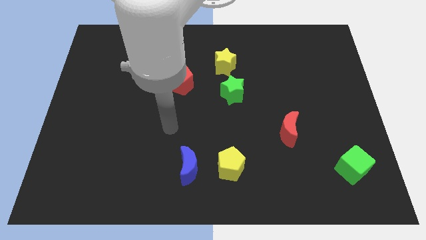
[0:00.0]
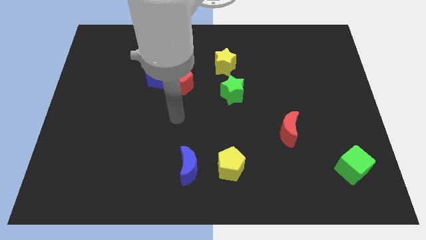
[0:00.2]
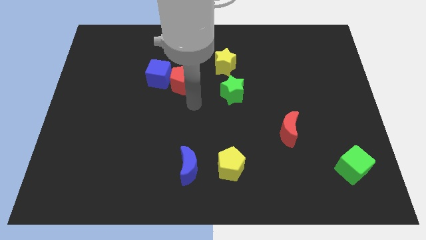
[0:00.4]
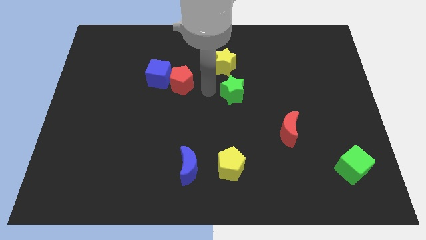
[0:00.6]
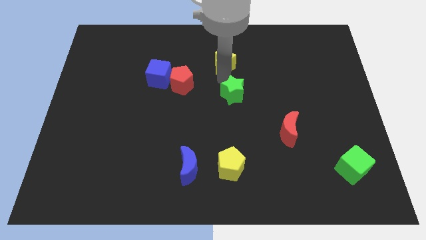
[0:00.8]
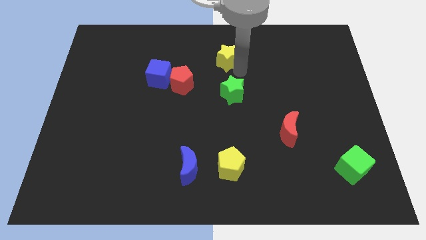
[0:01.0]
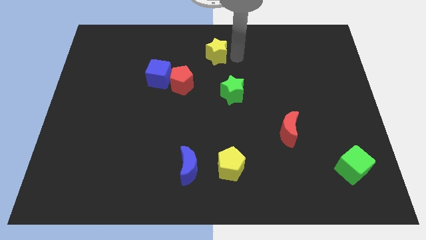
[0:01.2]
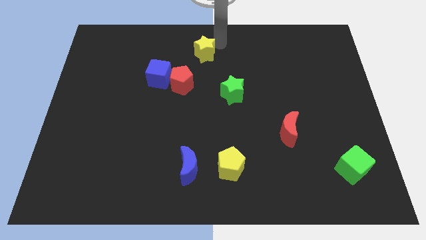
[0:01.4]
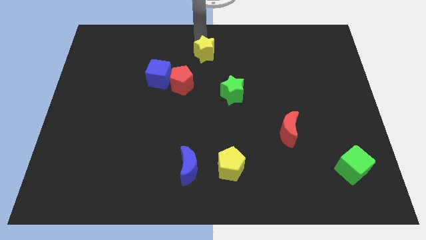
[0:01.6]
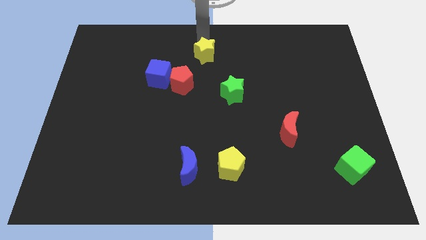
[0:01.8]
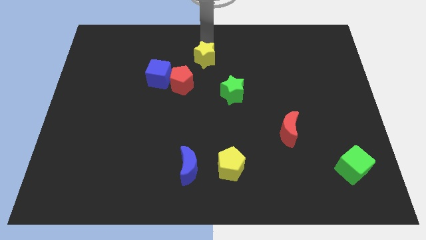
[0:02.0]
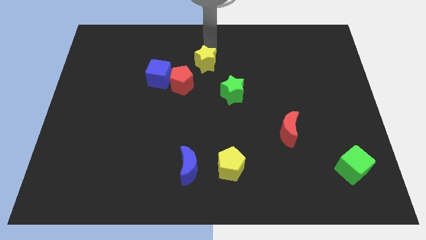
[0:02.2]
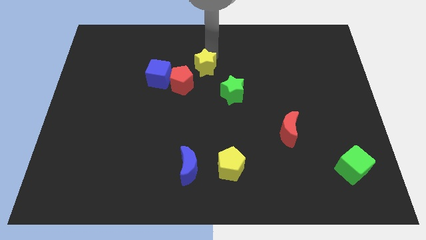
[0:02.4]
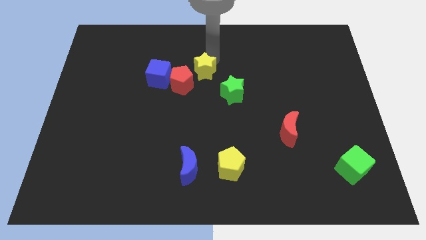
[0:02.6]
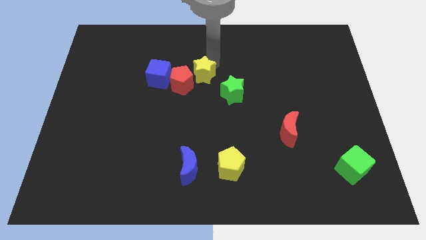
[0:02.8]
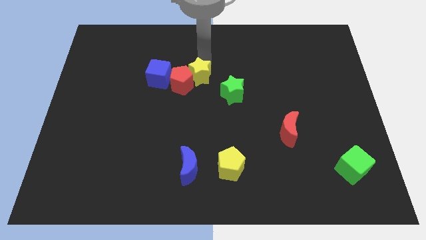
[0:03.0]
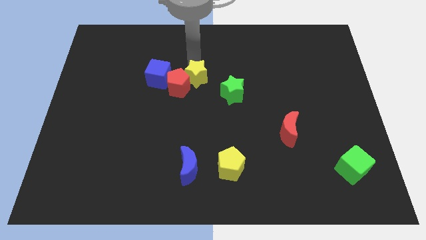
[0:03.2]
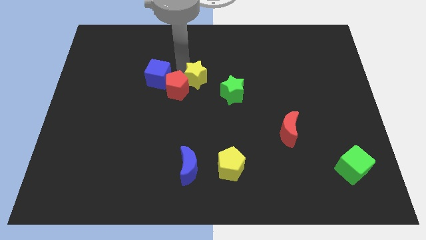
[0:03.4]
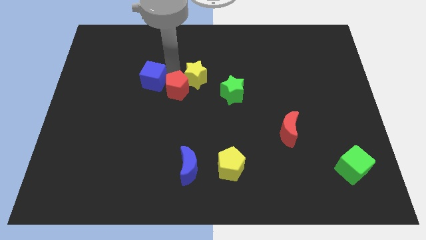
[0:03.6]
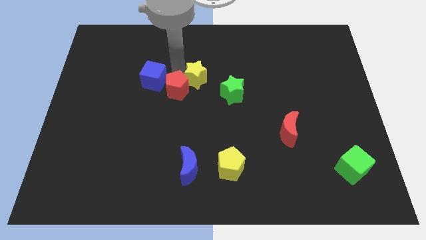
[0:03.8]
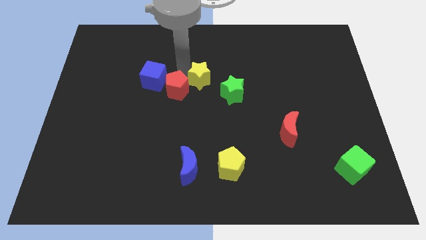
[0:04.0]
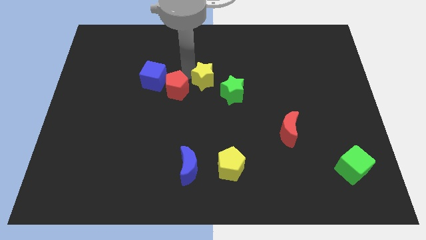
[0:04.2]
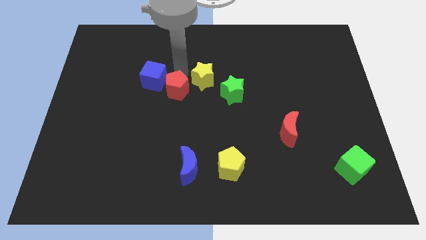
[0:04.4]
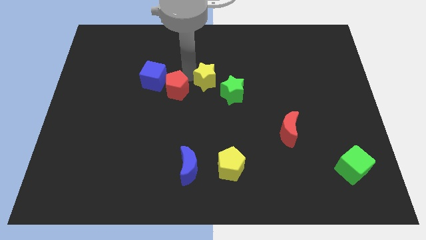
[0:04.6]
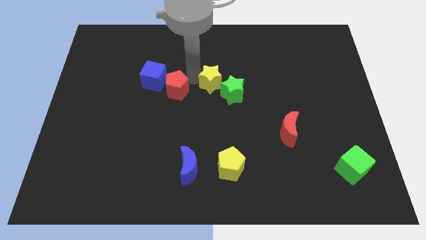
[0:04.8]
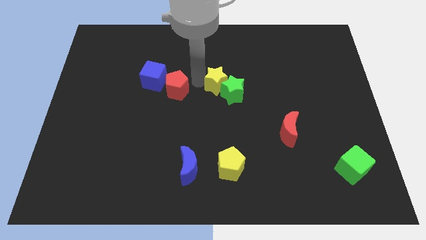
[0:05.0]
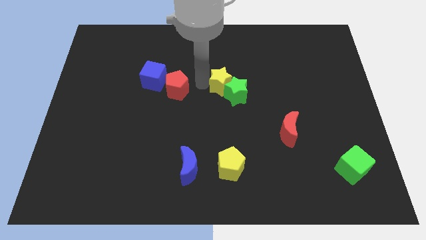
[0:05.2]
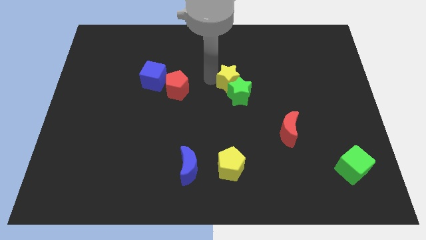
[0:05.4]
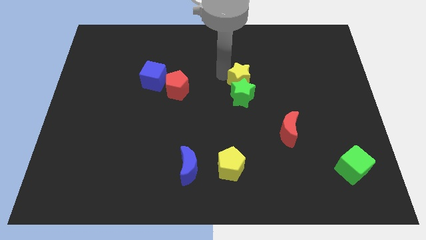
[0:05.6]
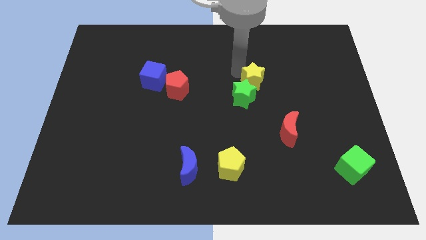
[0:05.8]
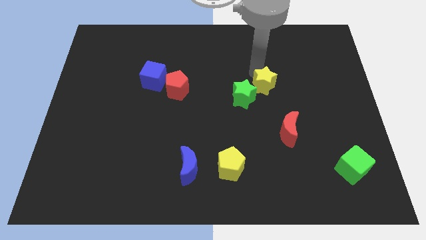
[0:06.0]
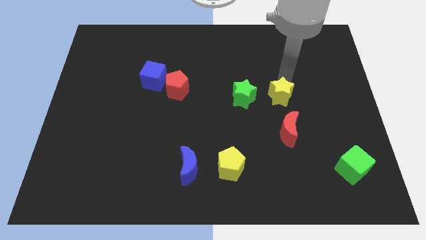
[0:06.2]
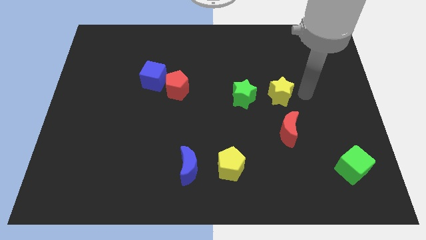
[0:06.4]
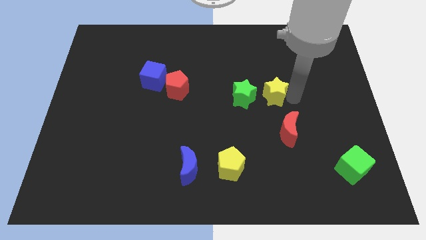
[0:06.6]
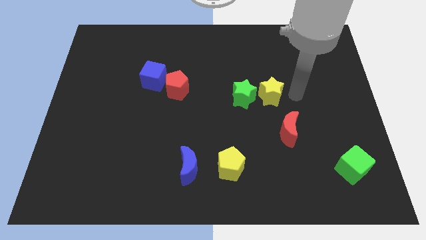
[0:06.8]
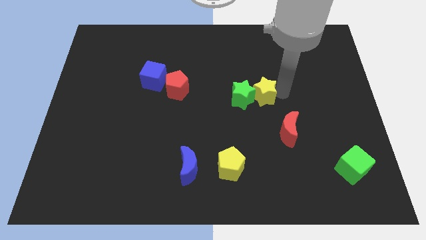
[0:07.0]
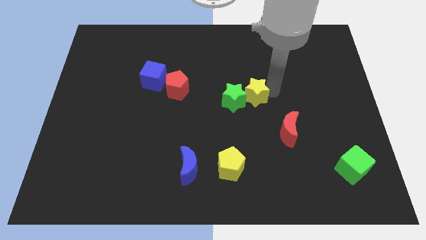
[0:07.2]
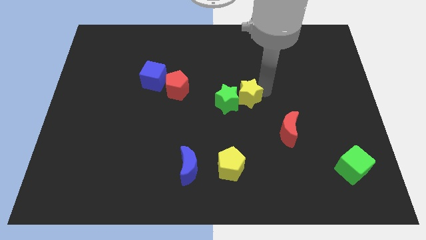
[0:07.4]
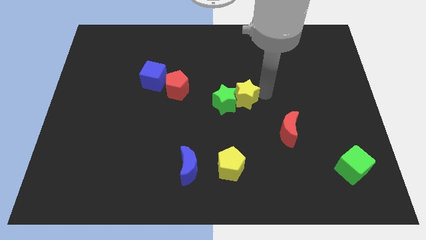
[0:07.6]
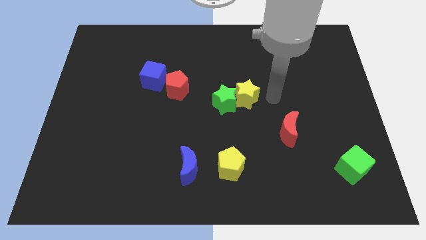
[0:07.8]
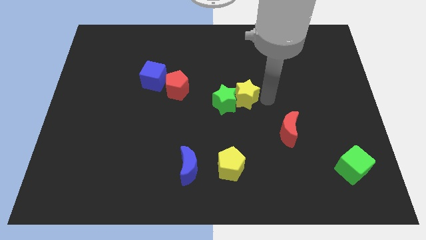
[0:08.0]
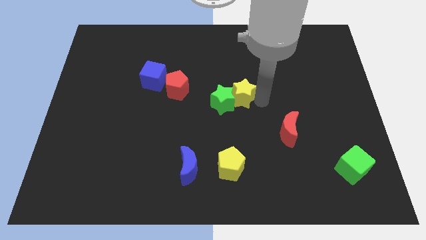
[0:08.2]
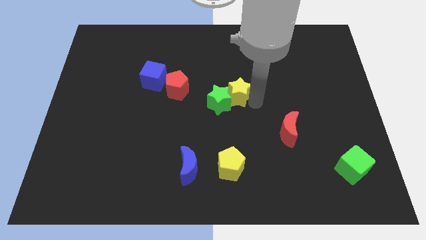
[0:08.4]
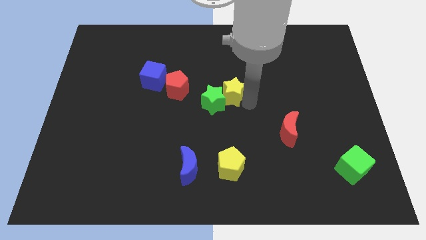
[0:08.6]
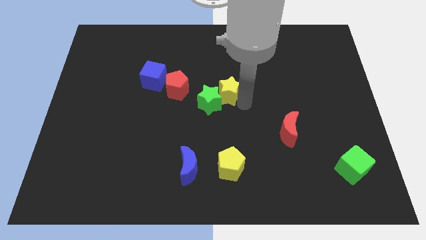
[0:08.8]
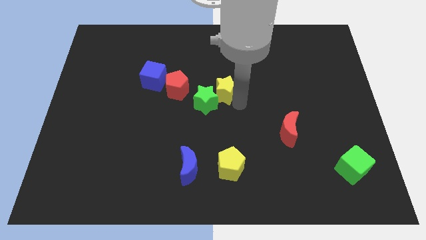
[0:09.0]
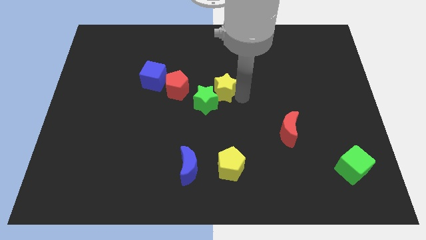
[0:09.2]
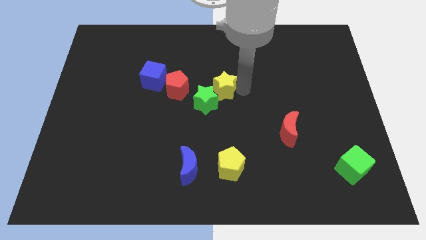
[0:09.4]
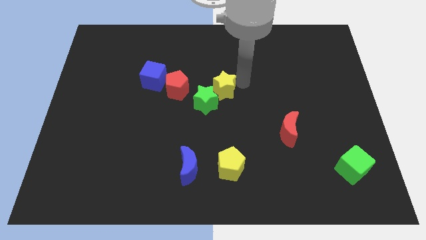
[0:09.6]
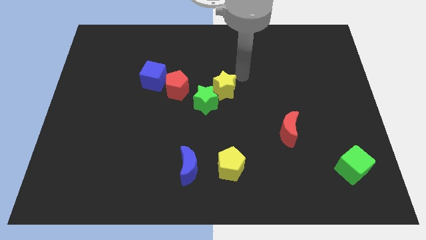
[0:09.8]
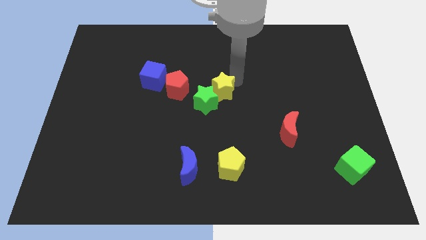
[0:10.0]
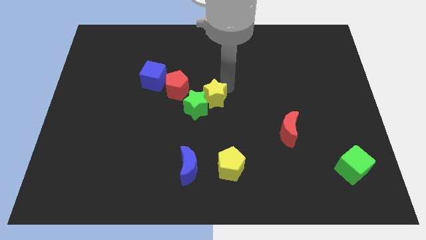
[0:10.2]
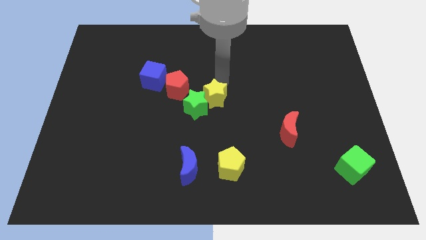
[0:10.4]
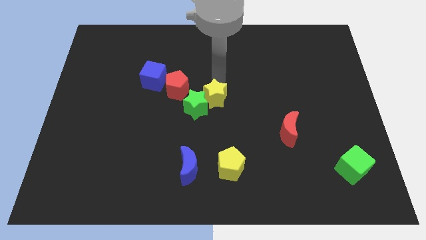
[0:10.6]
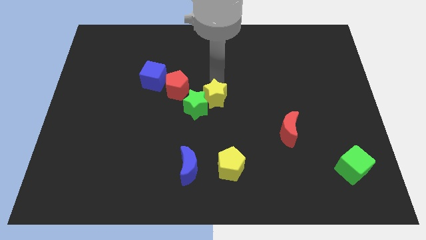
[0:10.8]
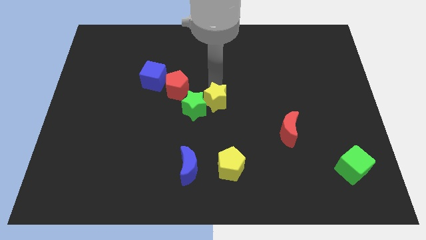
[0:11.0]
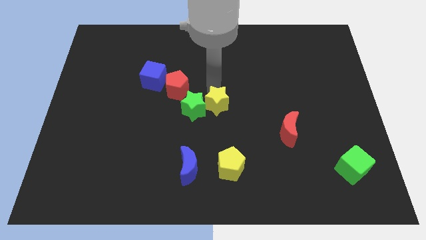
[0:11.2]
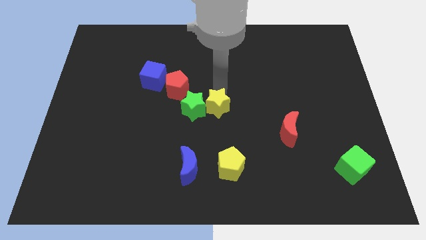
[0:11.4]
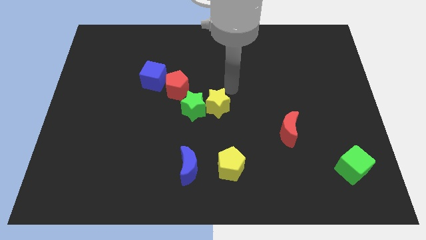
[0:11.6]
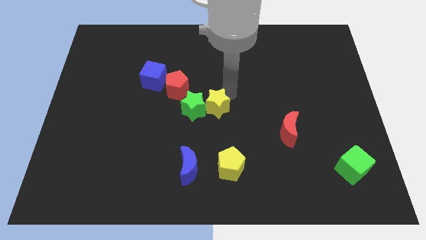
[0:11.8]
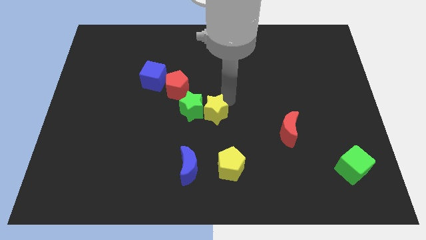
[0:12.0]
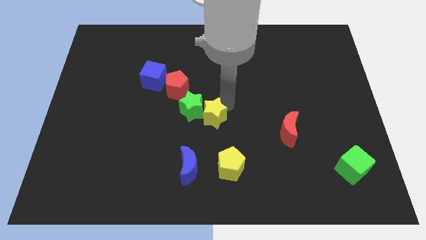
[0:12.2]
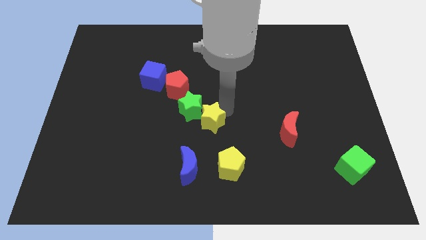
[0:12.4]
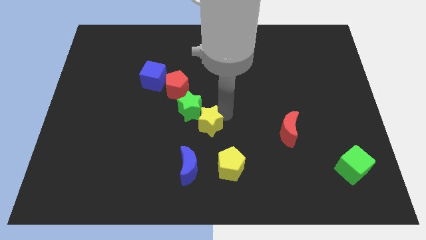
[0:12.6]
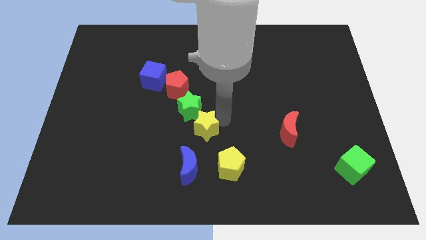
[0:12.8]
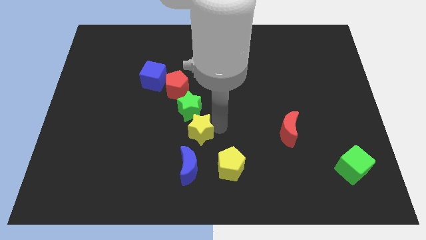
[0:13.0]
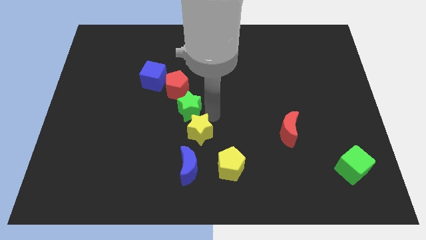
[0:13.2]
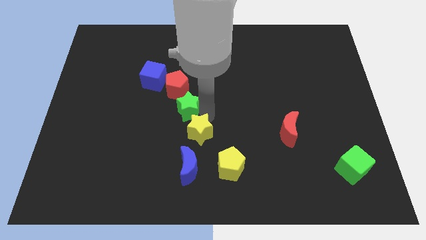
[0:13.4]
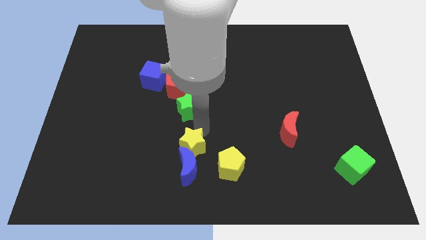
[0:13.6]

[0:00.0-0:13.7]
slide the yellow star close to the blue moon
